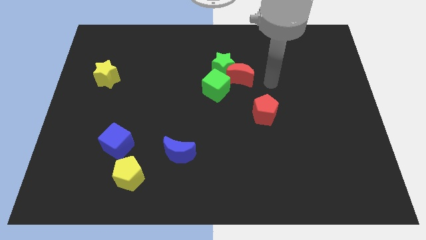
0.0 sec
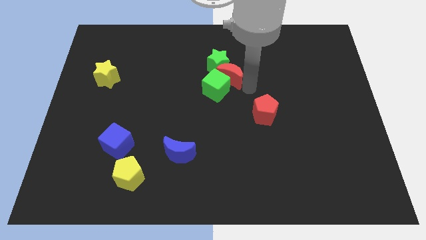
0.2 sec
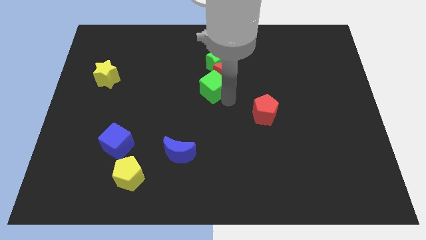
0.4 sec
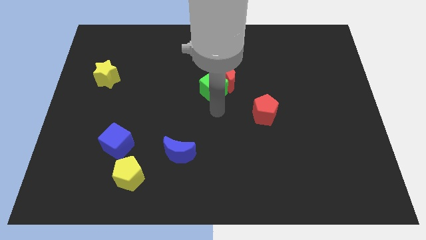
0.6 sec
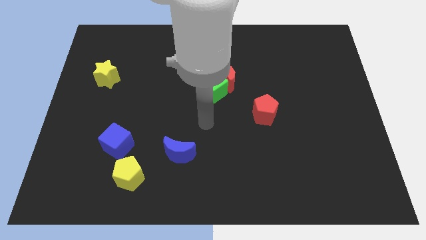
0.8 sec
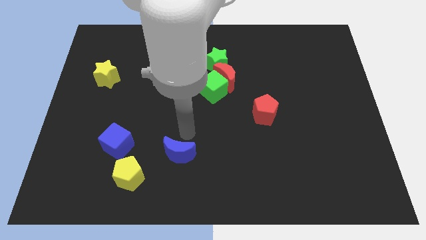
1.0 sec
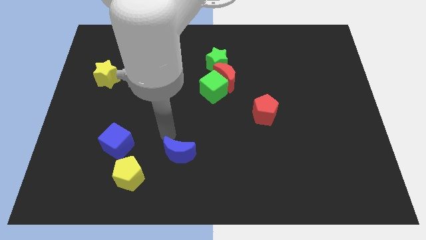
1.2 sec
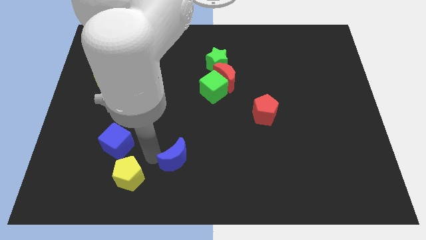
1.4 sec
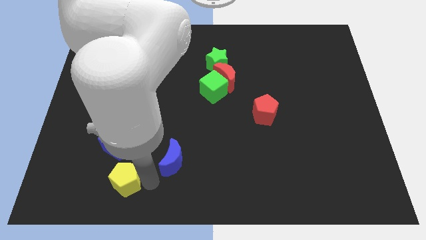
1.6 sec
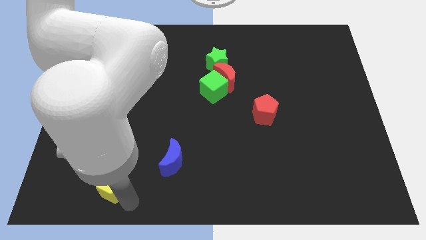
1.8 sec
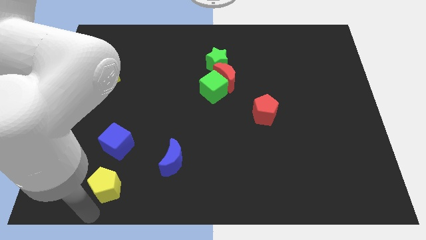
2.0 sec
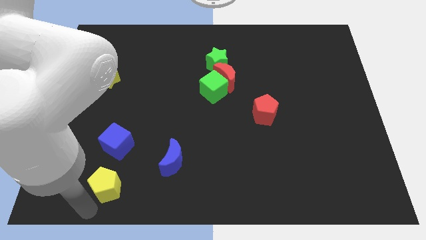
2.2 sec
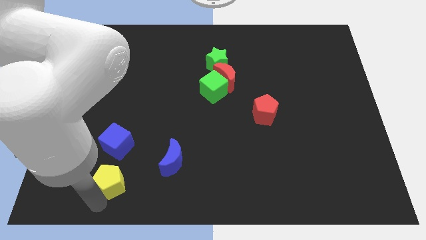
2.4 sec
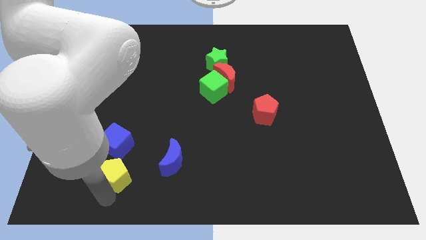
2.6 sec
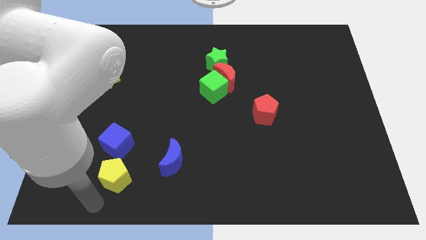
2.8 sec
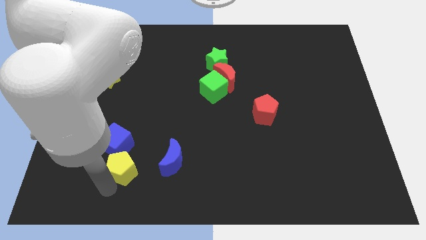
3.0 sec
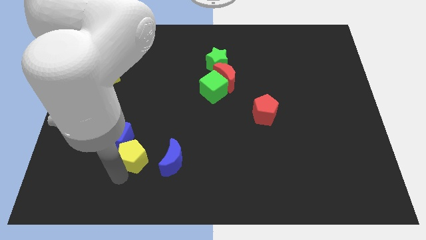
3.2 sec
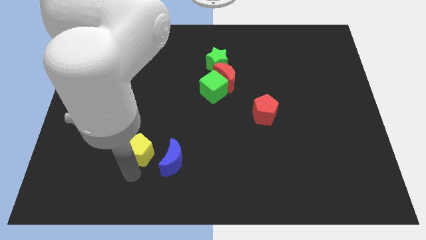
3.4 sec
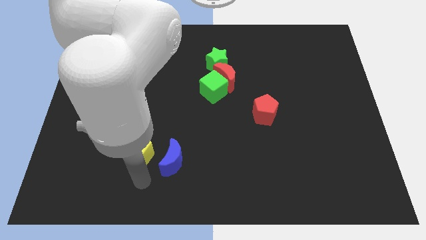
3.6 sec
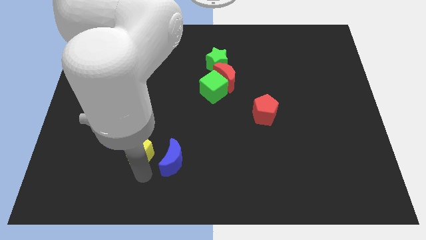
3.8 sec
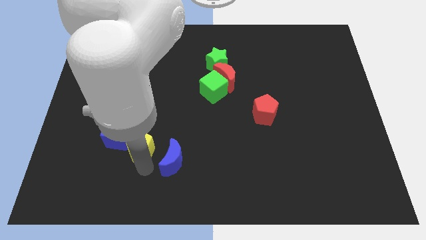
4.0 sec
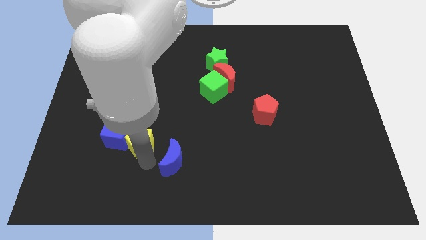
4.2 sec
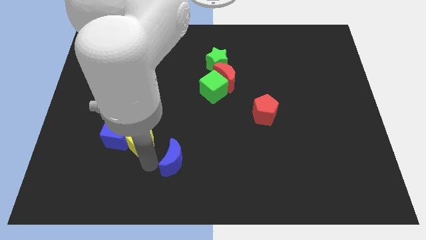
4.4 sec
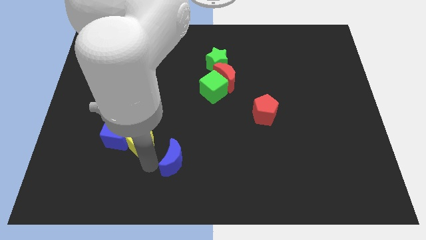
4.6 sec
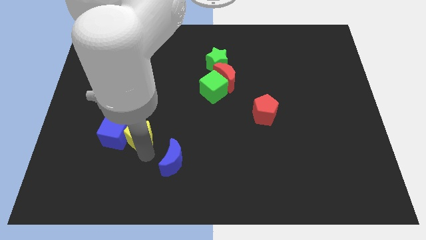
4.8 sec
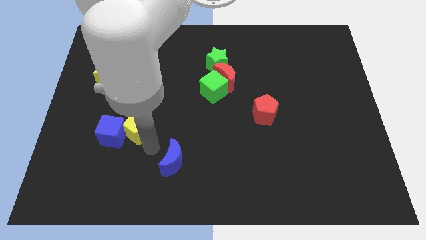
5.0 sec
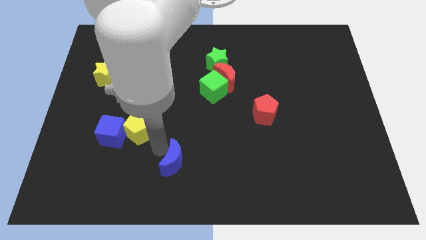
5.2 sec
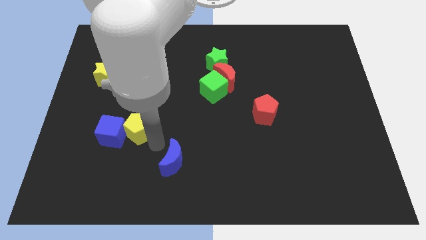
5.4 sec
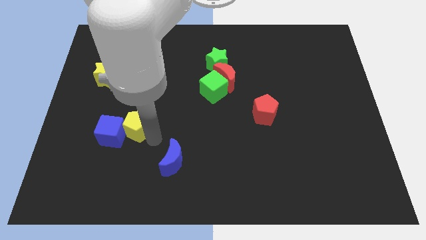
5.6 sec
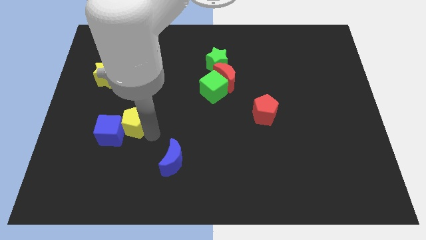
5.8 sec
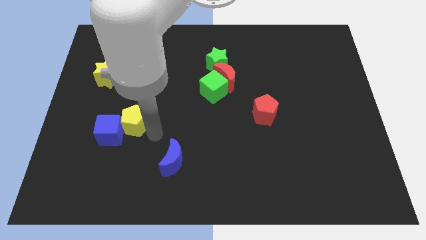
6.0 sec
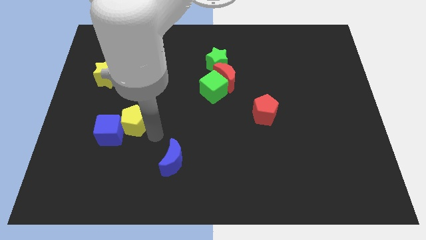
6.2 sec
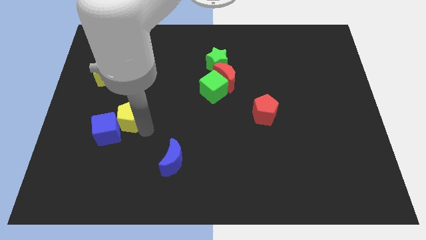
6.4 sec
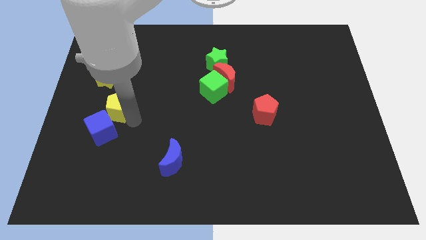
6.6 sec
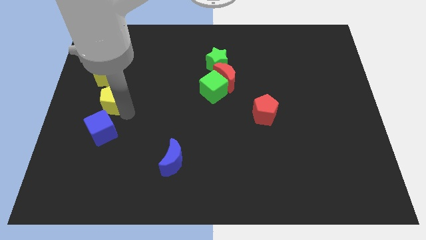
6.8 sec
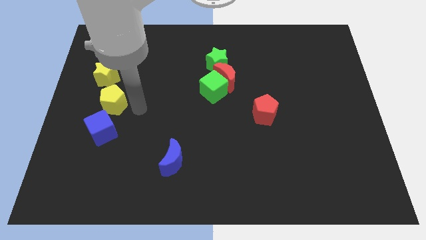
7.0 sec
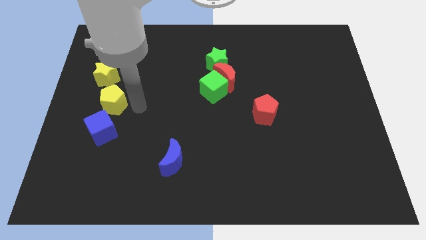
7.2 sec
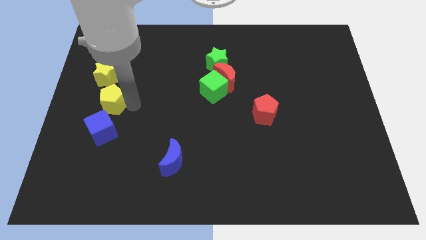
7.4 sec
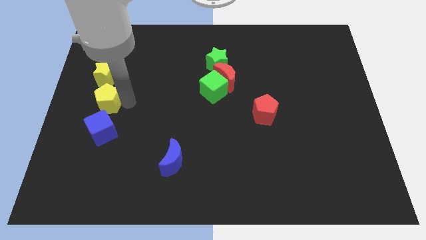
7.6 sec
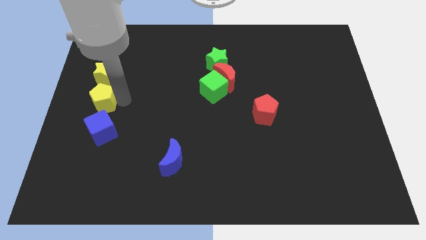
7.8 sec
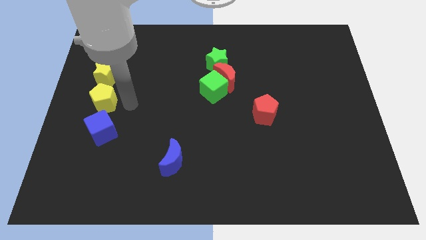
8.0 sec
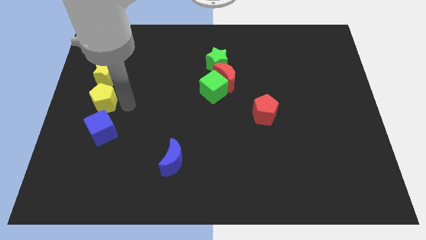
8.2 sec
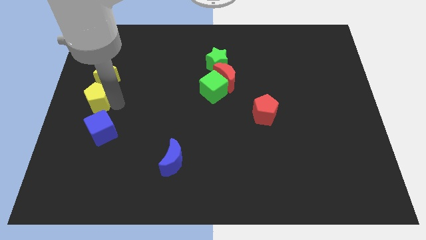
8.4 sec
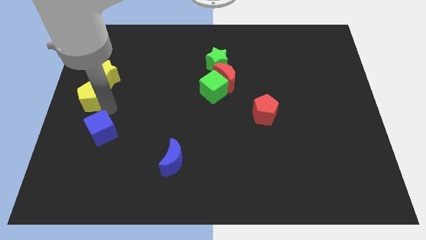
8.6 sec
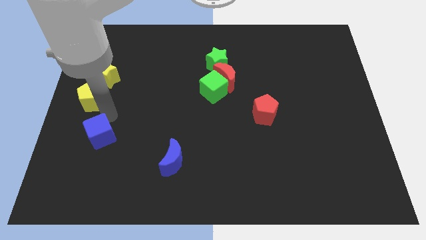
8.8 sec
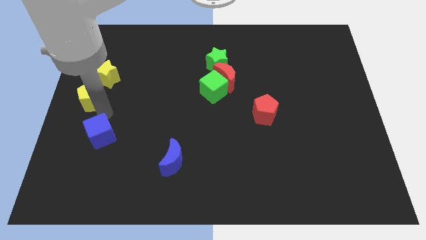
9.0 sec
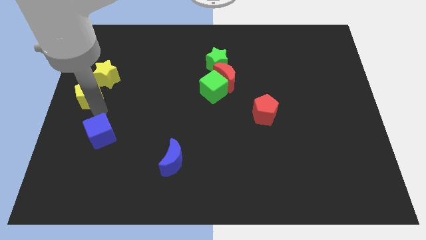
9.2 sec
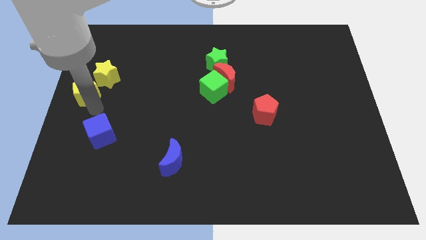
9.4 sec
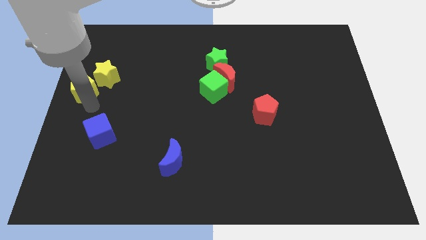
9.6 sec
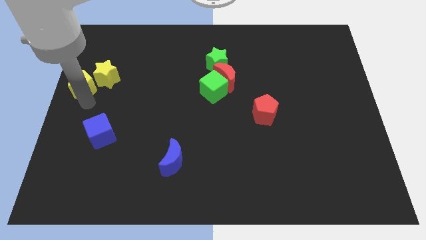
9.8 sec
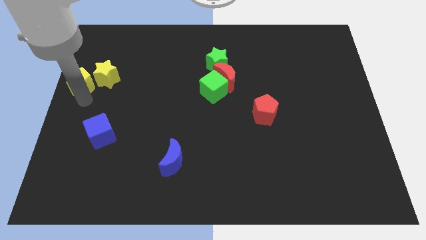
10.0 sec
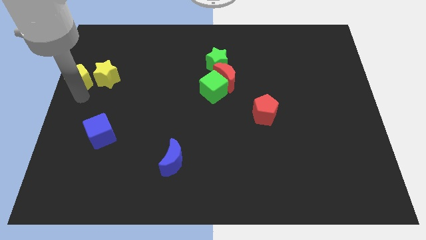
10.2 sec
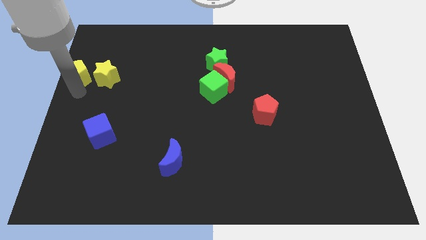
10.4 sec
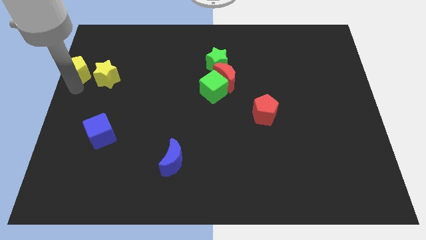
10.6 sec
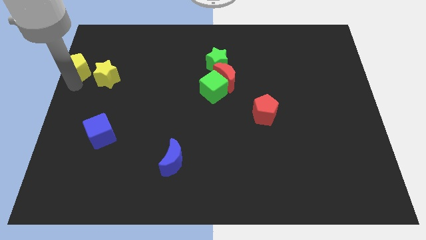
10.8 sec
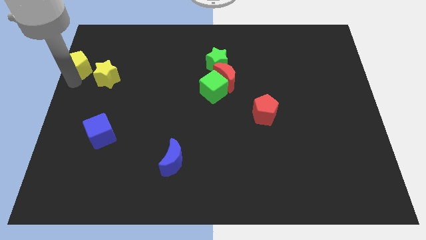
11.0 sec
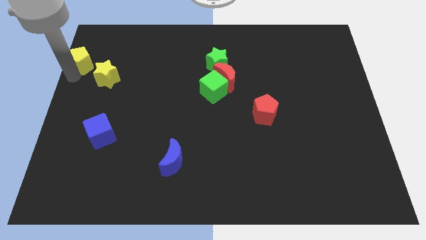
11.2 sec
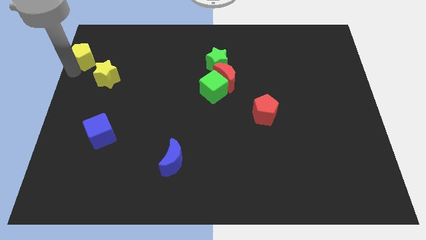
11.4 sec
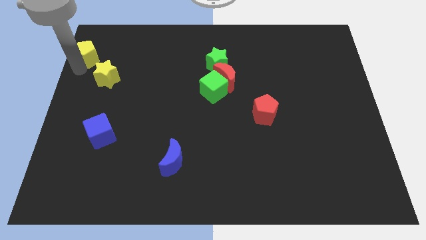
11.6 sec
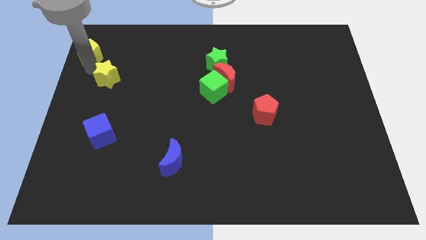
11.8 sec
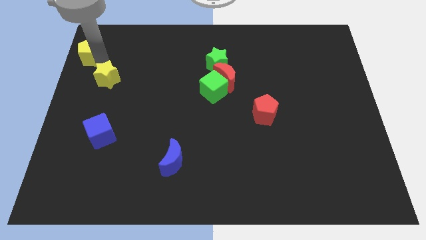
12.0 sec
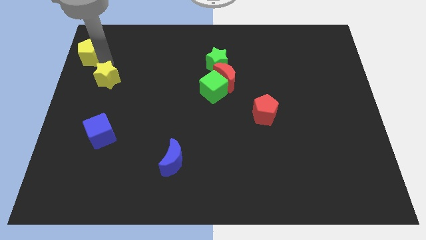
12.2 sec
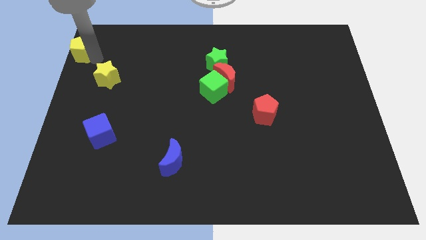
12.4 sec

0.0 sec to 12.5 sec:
move the yellow pentagon to the top left

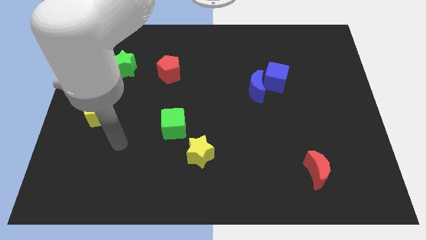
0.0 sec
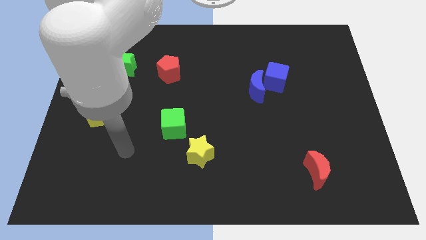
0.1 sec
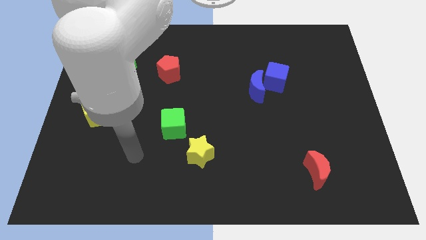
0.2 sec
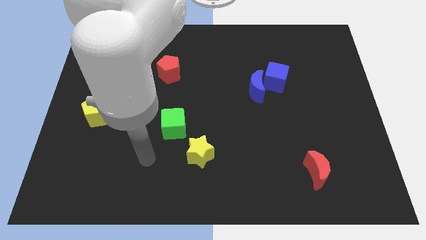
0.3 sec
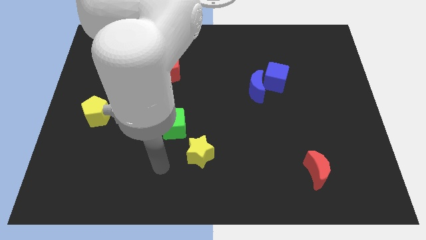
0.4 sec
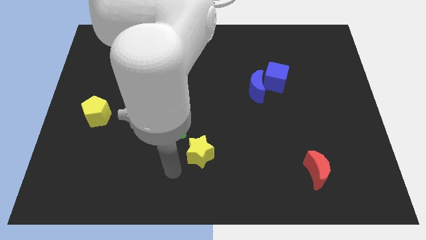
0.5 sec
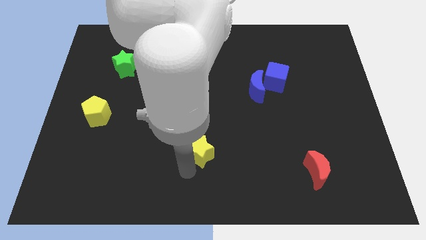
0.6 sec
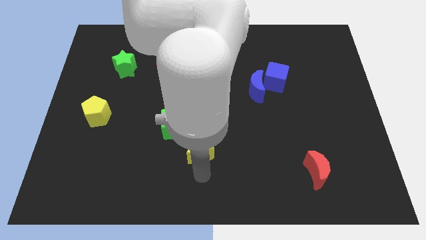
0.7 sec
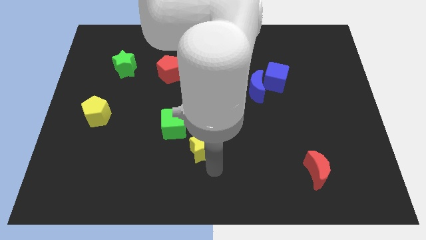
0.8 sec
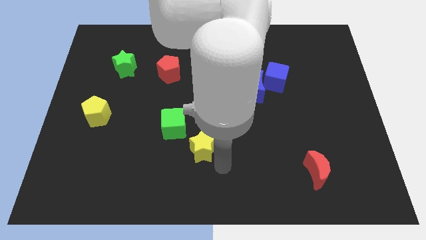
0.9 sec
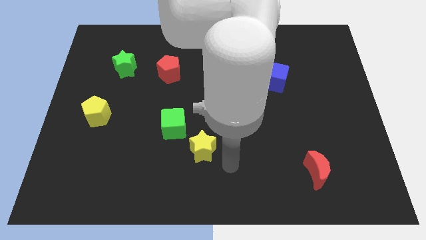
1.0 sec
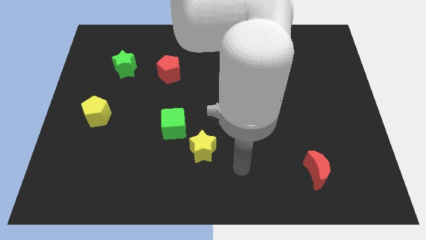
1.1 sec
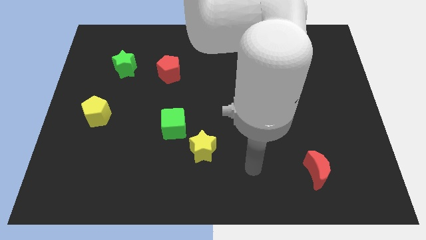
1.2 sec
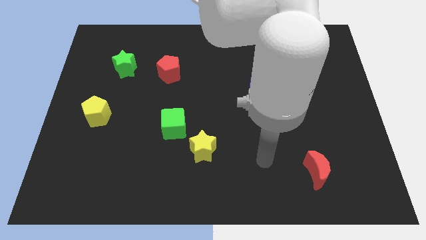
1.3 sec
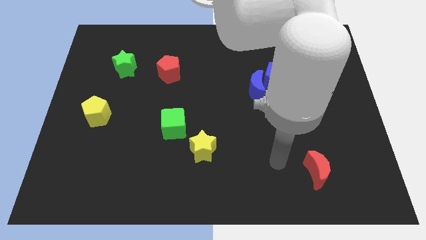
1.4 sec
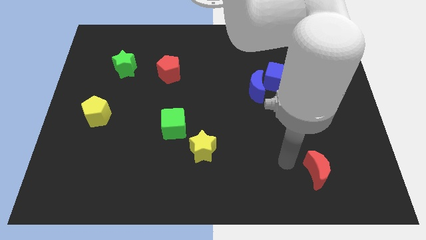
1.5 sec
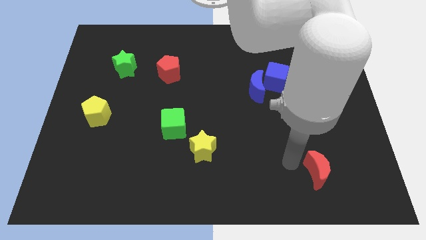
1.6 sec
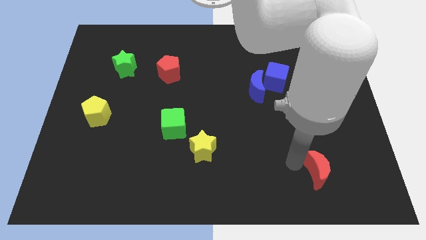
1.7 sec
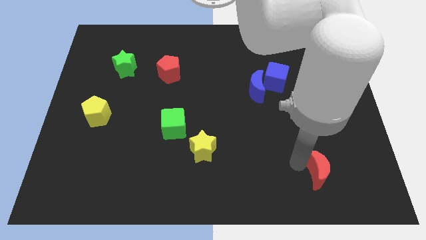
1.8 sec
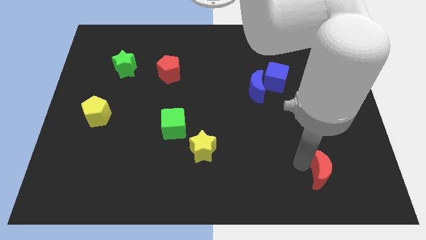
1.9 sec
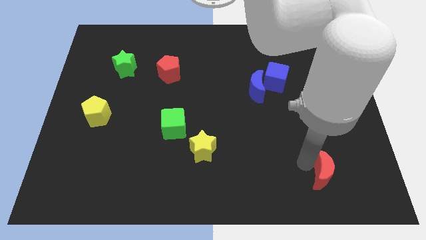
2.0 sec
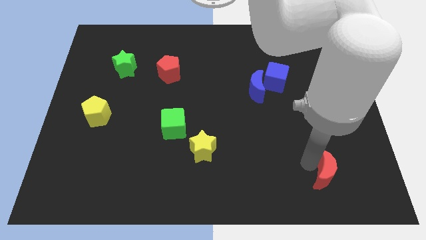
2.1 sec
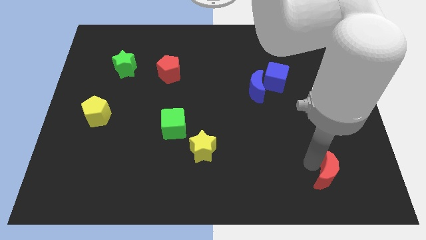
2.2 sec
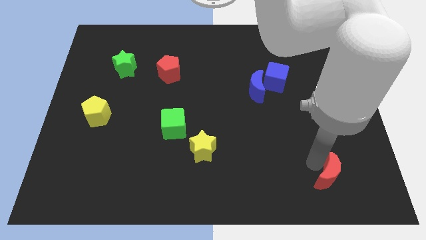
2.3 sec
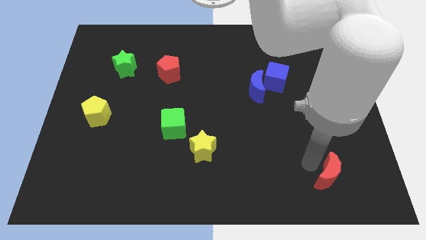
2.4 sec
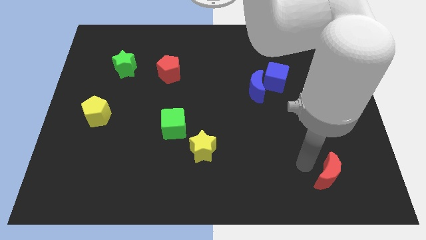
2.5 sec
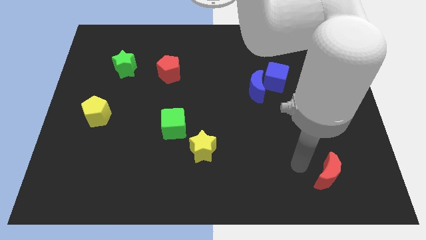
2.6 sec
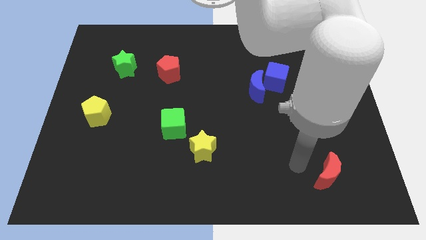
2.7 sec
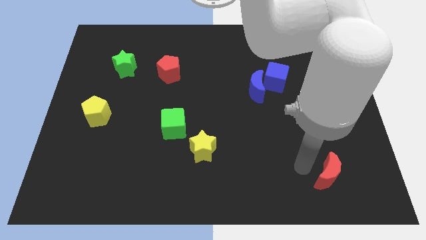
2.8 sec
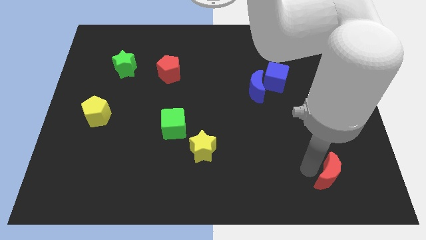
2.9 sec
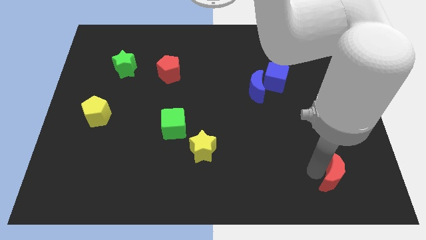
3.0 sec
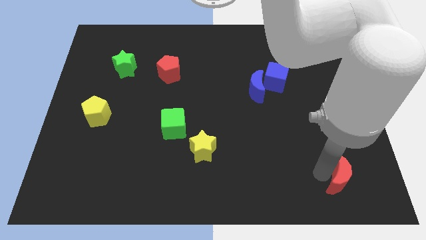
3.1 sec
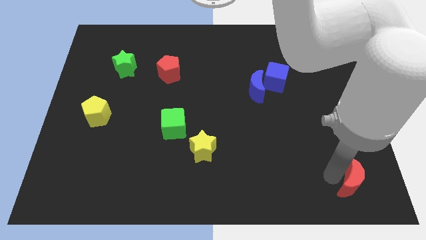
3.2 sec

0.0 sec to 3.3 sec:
push the red moon to the bottom right corner
